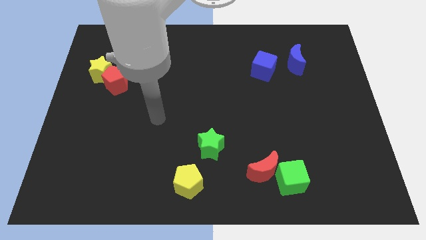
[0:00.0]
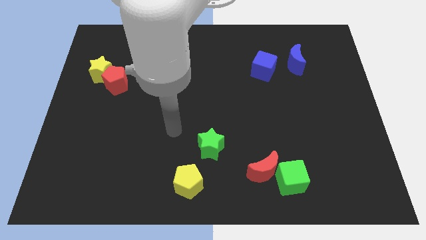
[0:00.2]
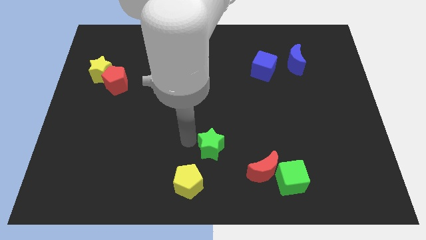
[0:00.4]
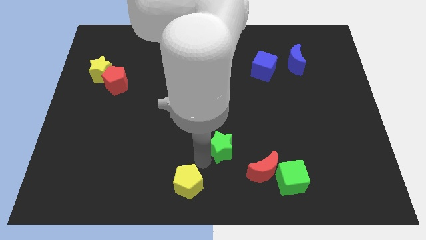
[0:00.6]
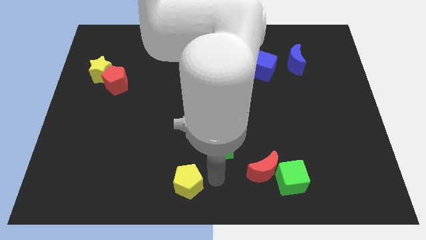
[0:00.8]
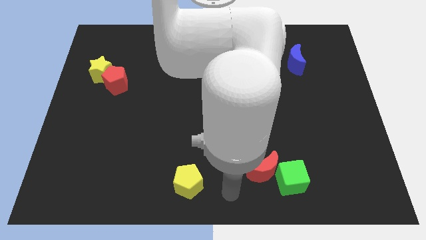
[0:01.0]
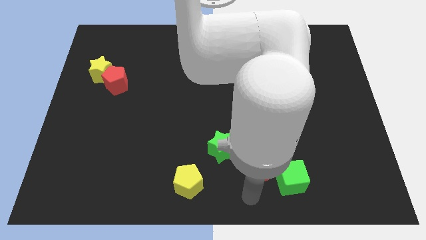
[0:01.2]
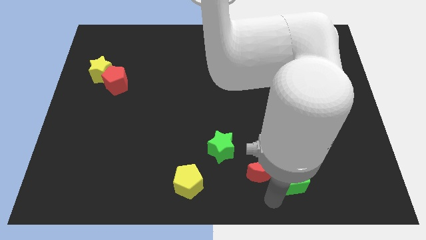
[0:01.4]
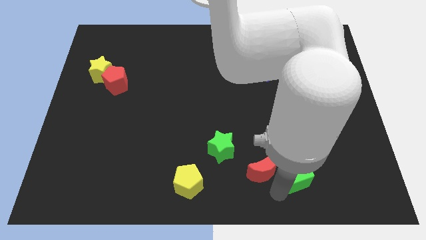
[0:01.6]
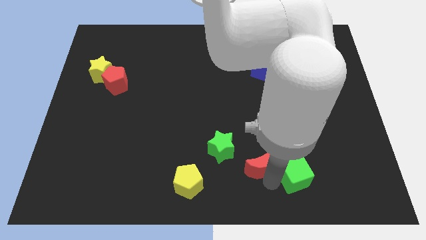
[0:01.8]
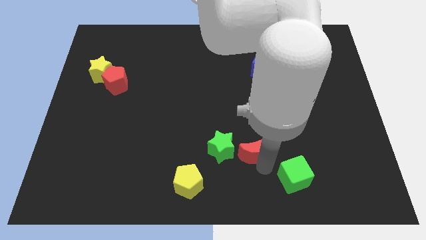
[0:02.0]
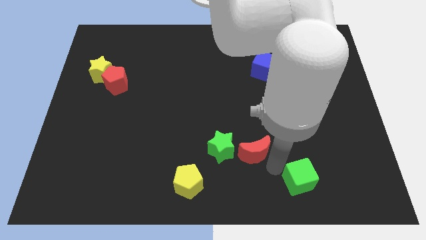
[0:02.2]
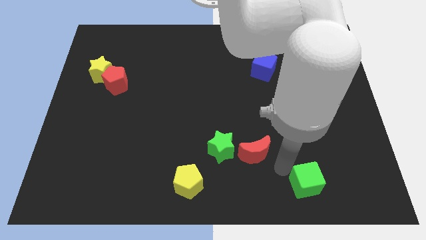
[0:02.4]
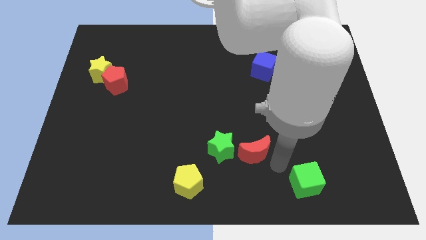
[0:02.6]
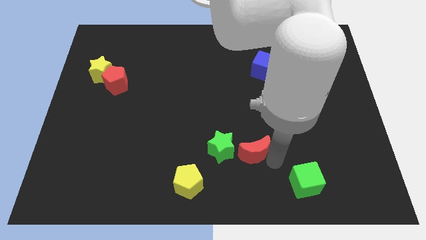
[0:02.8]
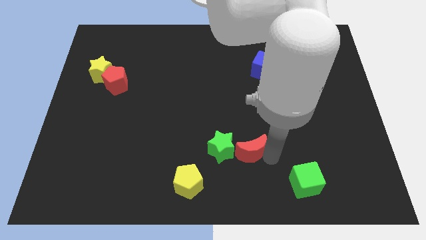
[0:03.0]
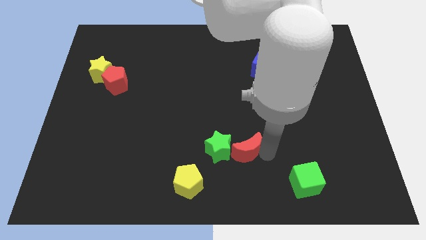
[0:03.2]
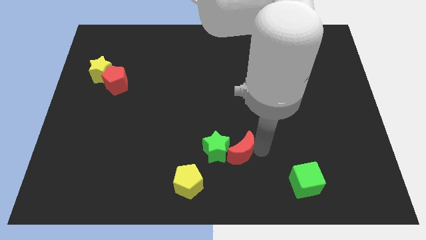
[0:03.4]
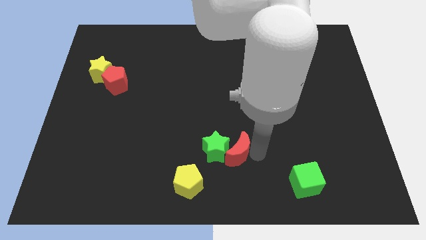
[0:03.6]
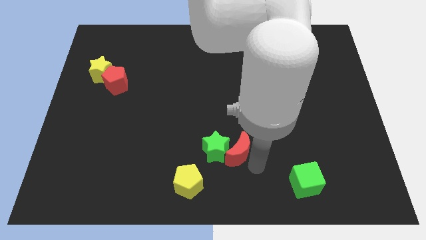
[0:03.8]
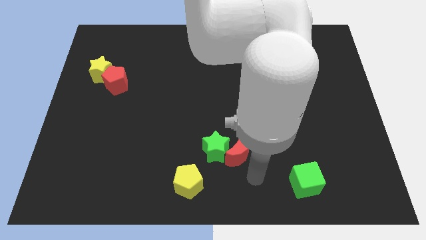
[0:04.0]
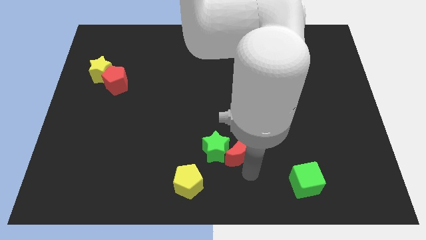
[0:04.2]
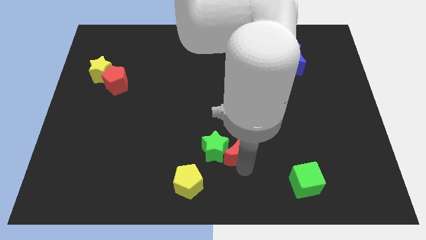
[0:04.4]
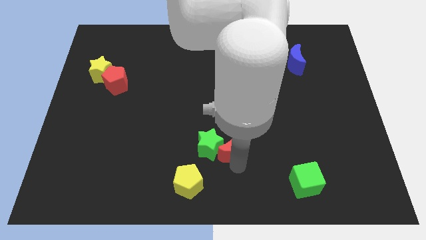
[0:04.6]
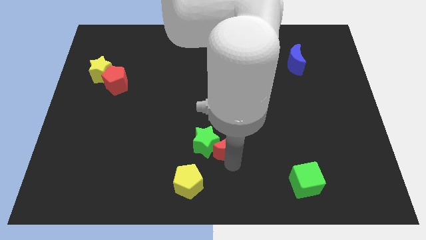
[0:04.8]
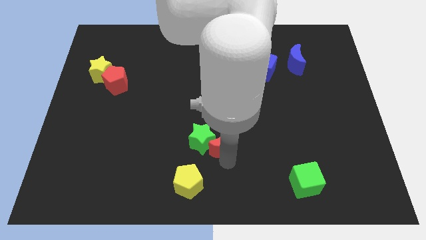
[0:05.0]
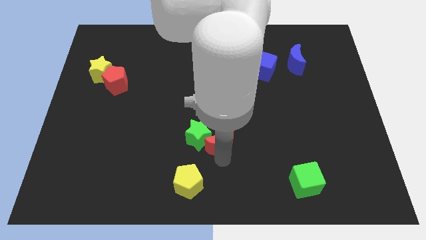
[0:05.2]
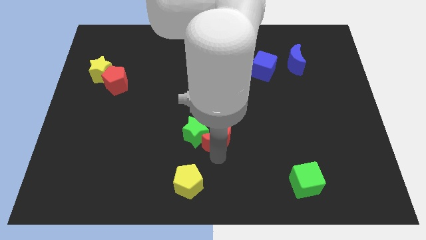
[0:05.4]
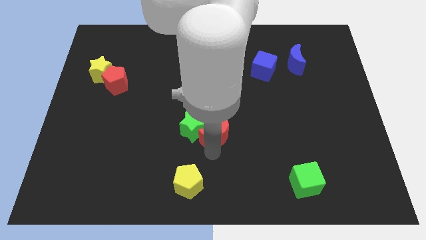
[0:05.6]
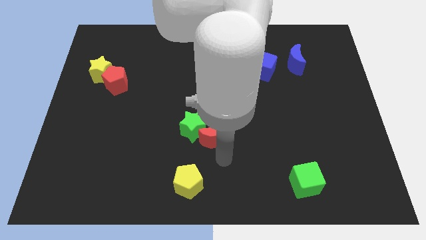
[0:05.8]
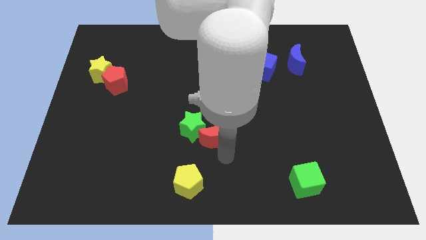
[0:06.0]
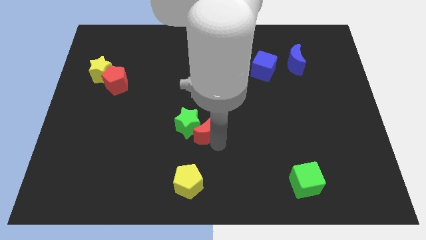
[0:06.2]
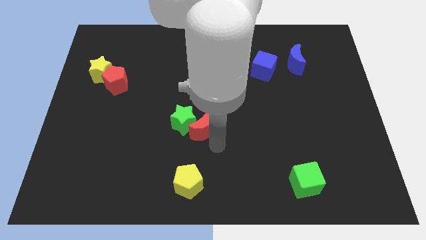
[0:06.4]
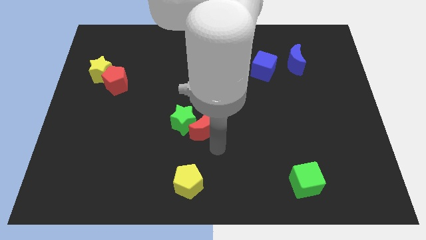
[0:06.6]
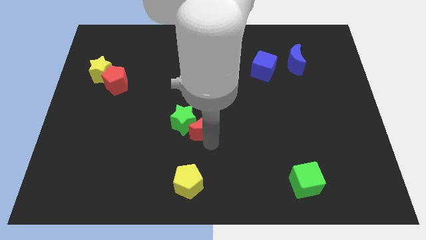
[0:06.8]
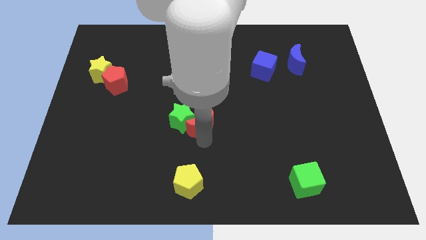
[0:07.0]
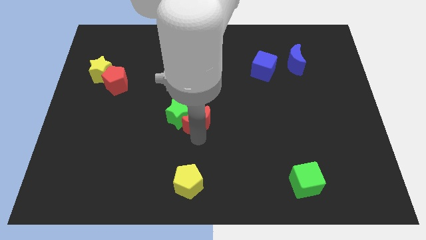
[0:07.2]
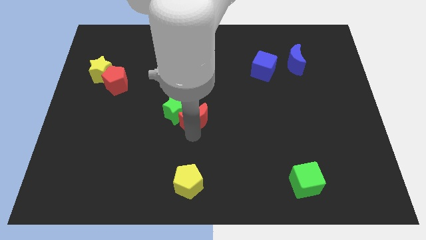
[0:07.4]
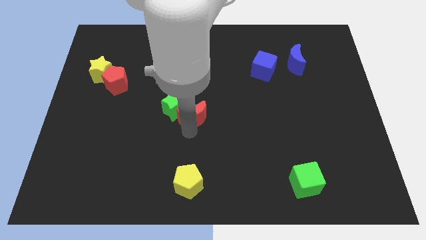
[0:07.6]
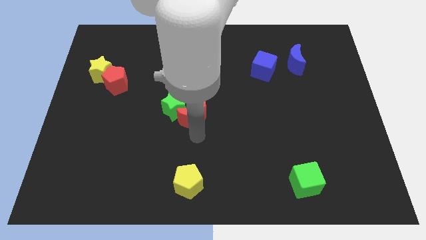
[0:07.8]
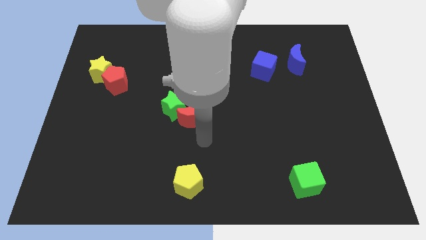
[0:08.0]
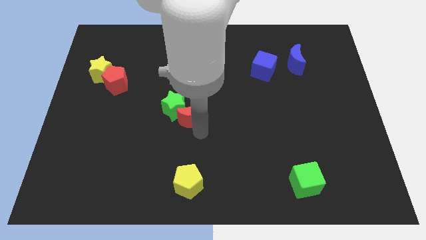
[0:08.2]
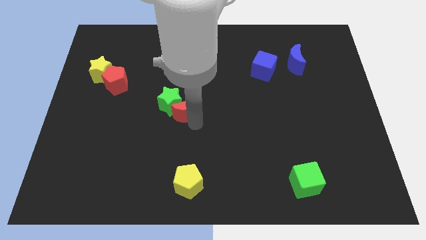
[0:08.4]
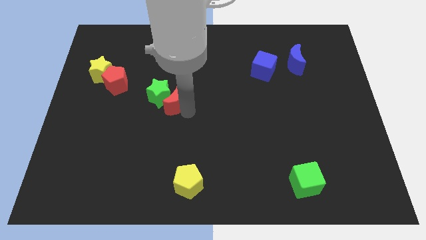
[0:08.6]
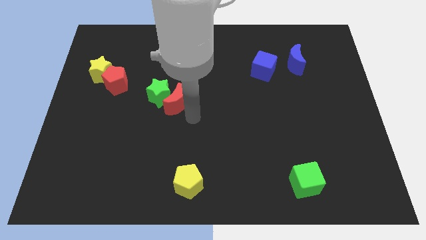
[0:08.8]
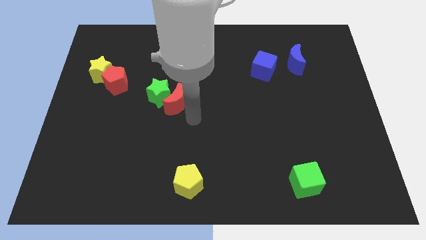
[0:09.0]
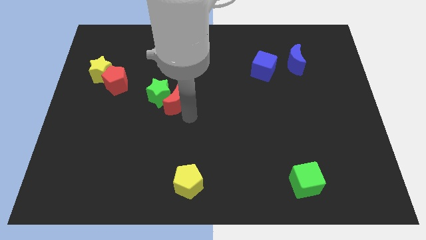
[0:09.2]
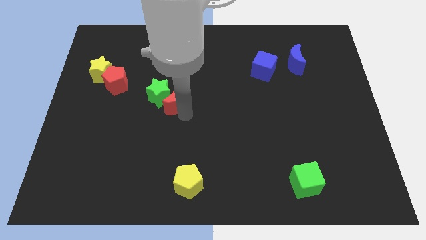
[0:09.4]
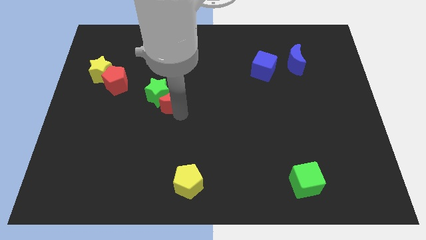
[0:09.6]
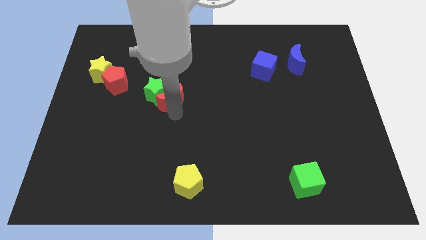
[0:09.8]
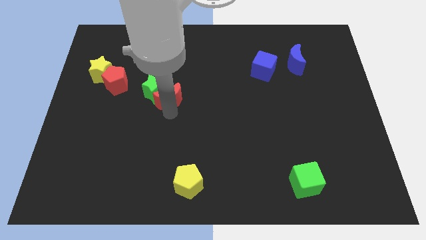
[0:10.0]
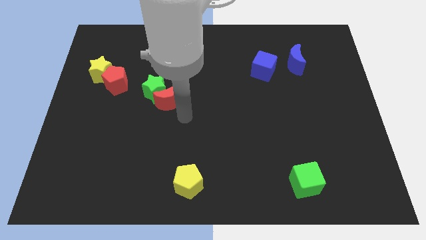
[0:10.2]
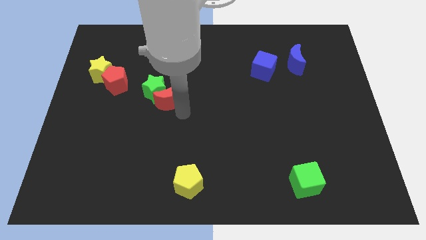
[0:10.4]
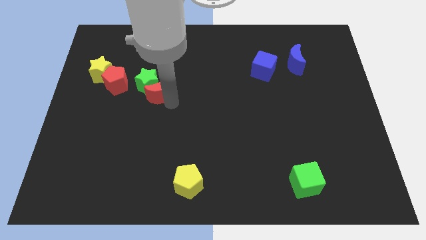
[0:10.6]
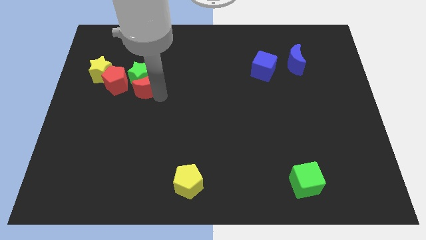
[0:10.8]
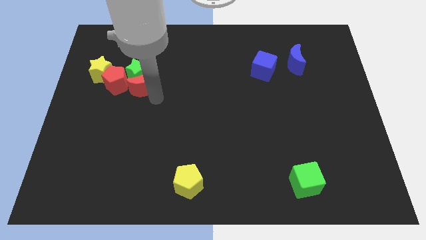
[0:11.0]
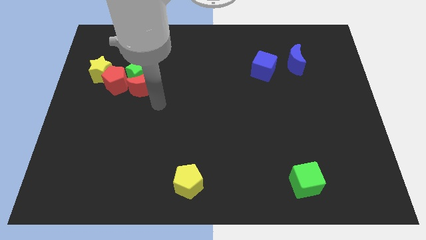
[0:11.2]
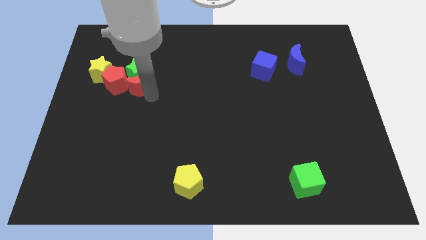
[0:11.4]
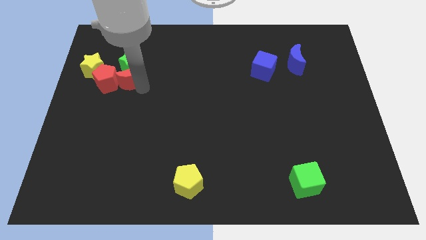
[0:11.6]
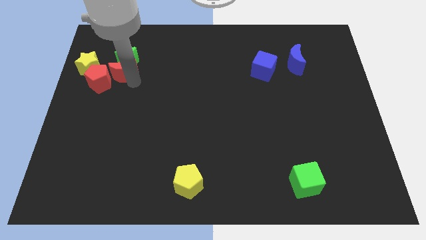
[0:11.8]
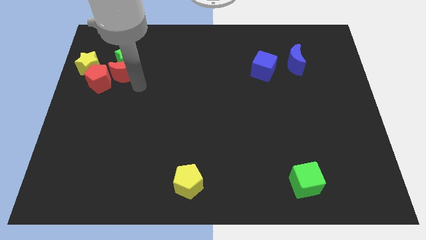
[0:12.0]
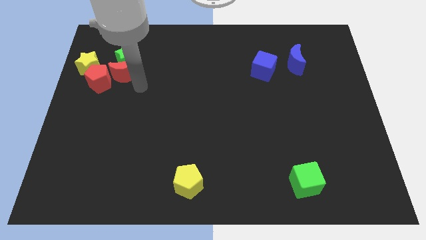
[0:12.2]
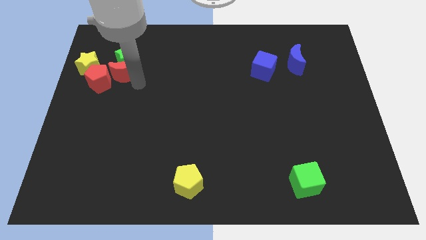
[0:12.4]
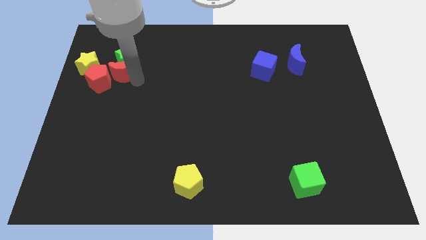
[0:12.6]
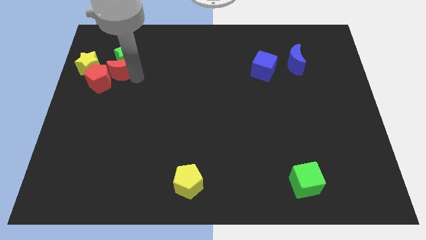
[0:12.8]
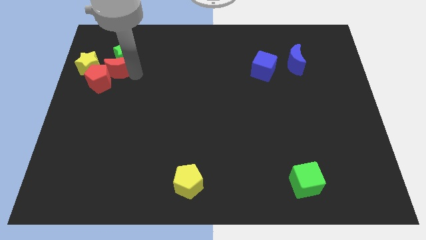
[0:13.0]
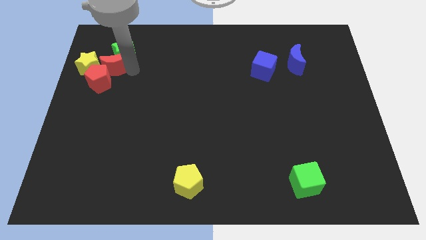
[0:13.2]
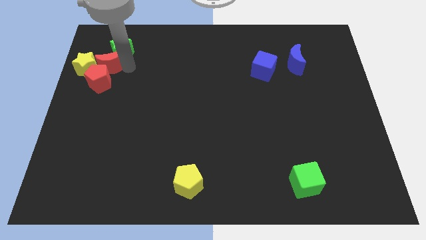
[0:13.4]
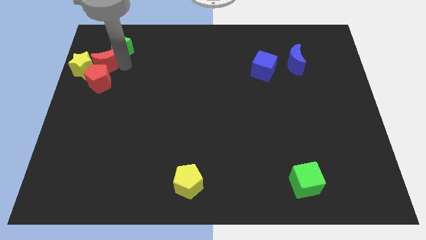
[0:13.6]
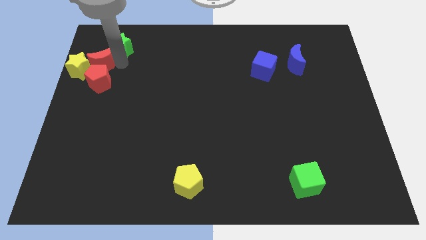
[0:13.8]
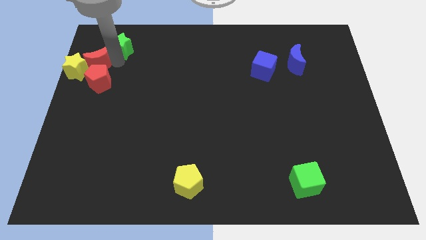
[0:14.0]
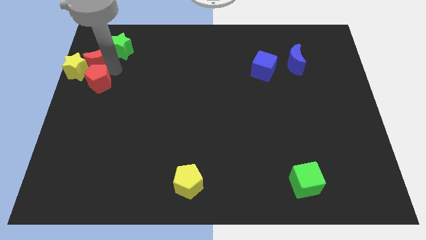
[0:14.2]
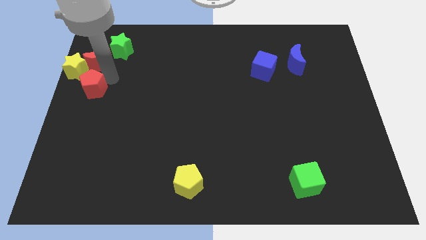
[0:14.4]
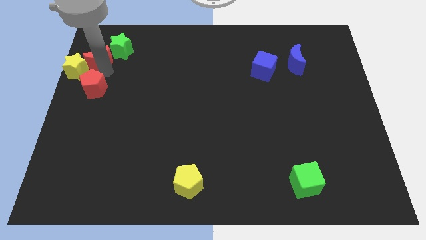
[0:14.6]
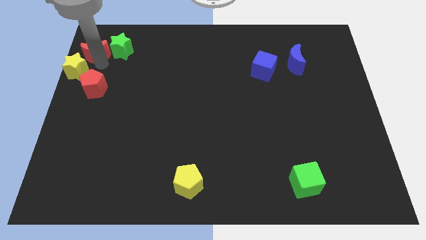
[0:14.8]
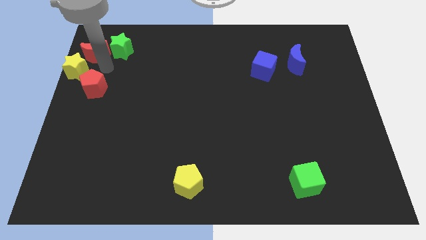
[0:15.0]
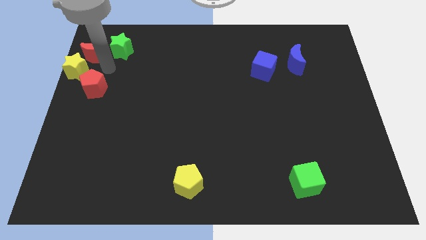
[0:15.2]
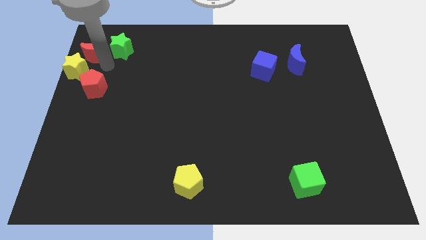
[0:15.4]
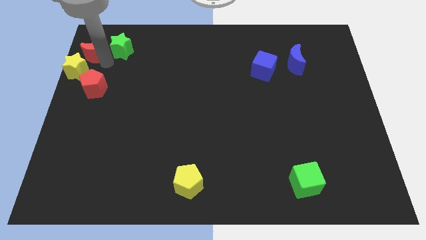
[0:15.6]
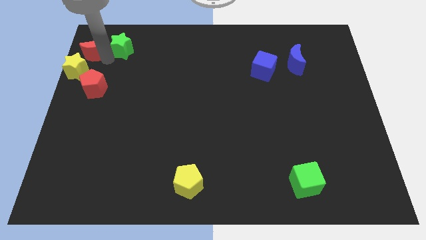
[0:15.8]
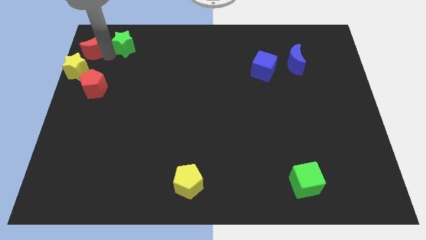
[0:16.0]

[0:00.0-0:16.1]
push the red moon to the top left
